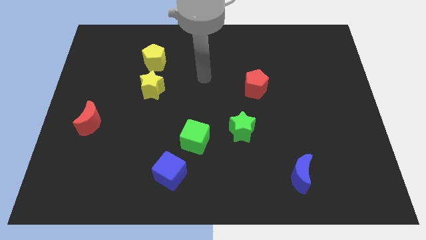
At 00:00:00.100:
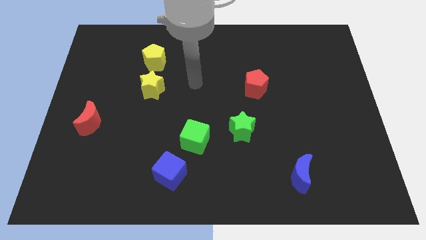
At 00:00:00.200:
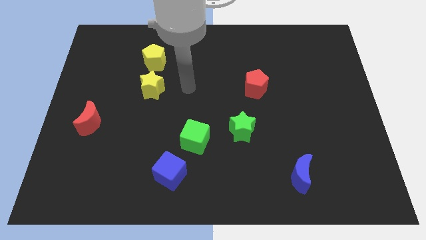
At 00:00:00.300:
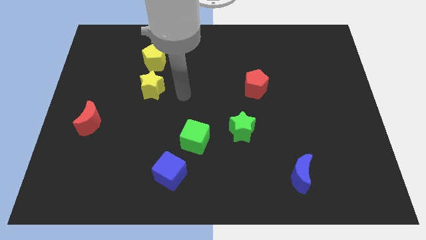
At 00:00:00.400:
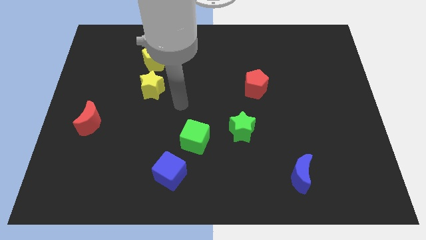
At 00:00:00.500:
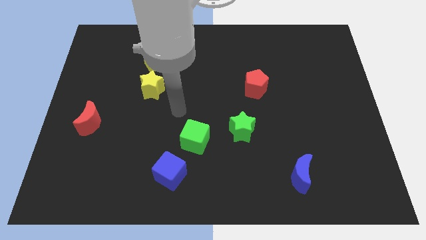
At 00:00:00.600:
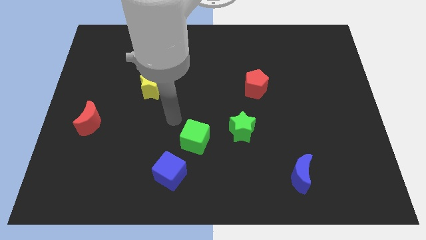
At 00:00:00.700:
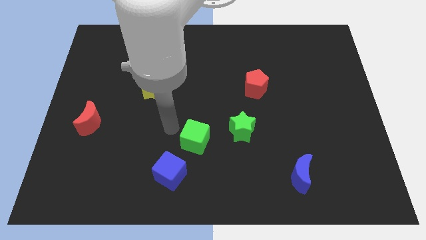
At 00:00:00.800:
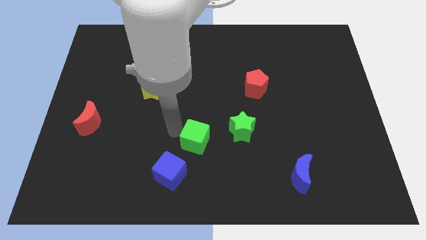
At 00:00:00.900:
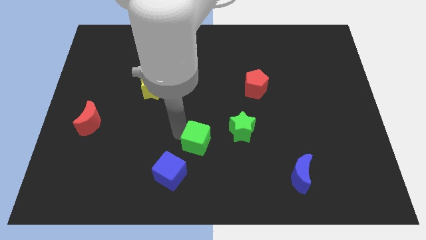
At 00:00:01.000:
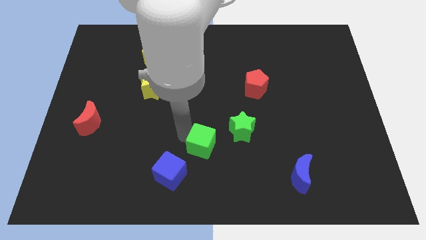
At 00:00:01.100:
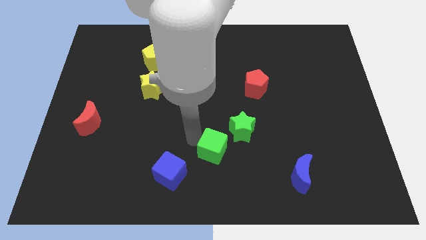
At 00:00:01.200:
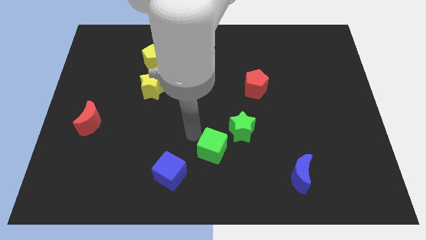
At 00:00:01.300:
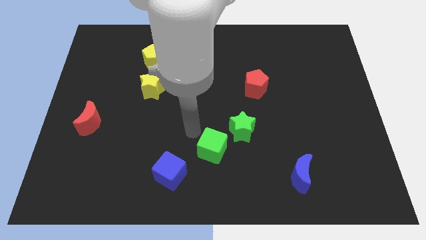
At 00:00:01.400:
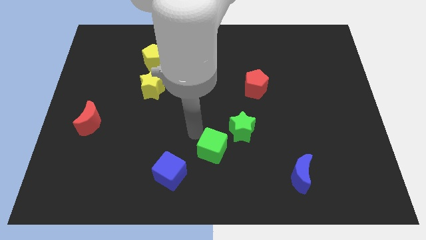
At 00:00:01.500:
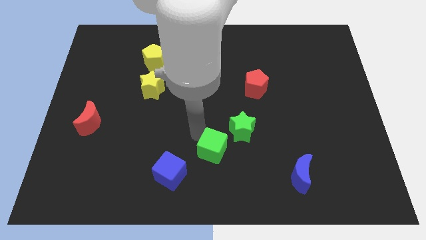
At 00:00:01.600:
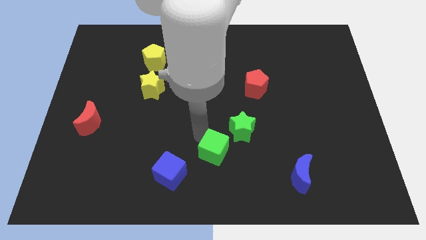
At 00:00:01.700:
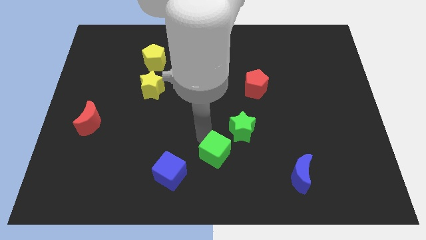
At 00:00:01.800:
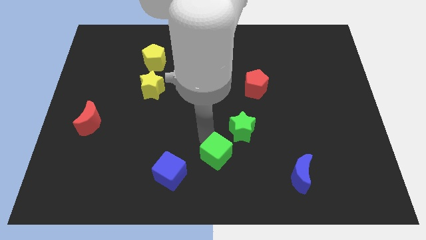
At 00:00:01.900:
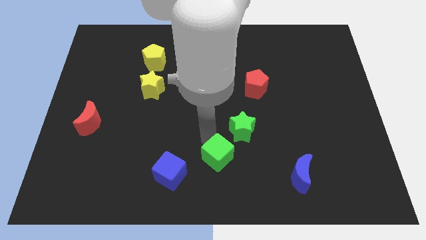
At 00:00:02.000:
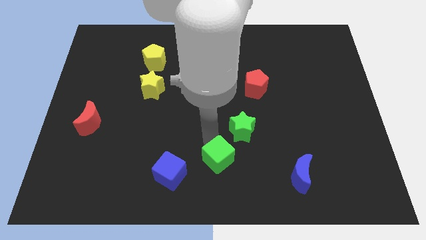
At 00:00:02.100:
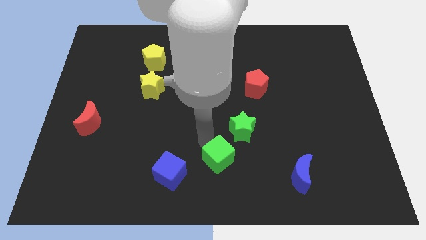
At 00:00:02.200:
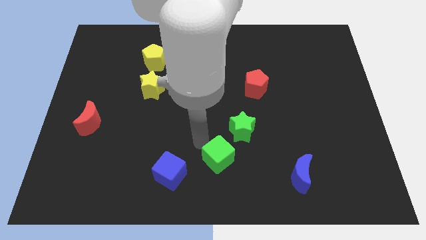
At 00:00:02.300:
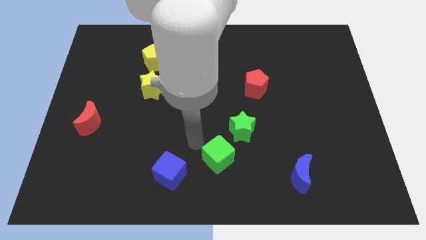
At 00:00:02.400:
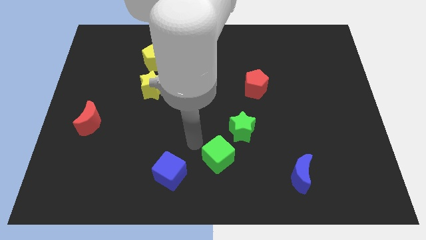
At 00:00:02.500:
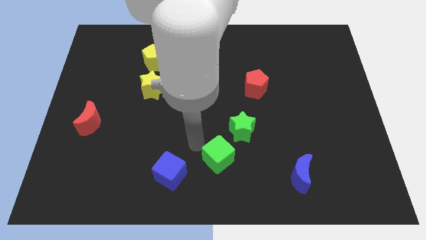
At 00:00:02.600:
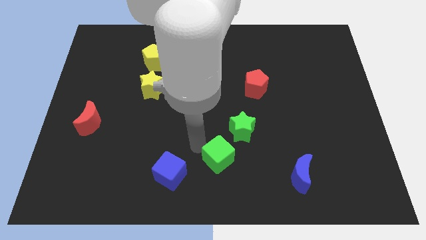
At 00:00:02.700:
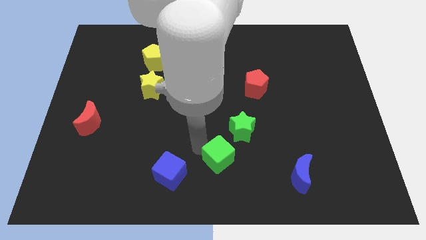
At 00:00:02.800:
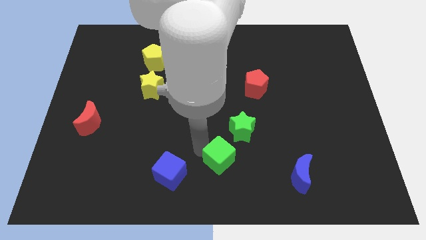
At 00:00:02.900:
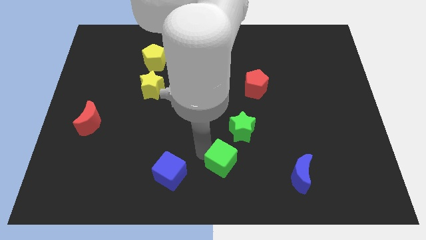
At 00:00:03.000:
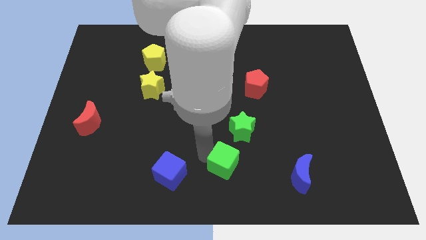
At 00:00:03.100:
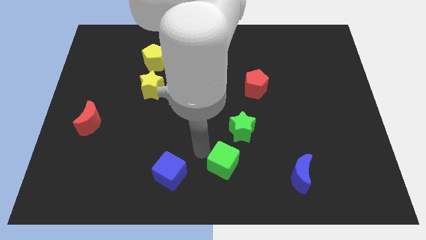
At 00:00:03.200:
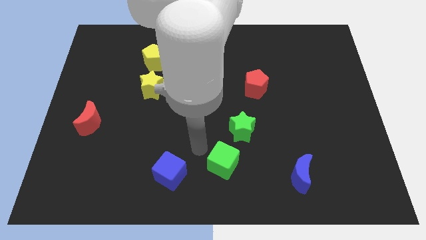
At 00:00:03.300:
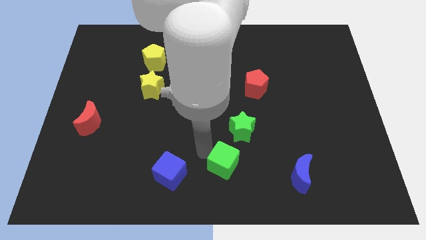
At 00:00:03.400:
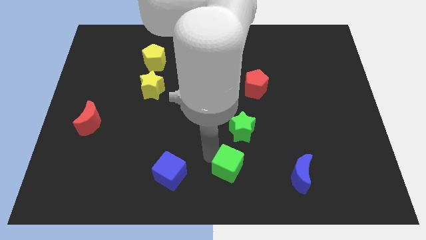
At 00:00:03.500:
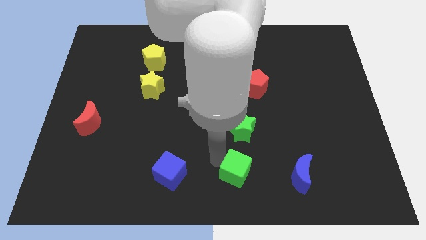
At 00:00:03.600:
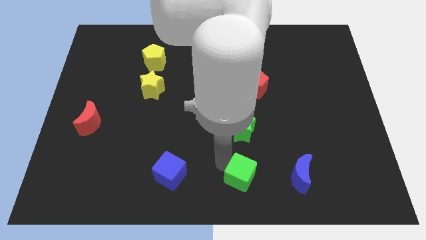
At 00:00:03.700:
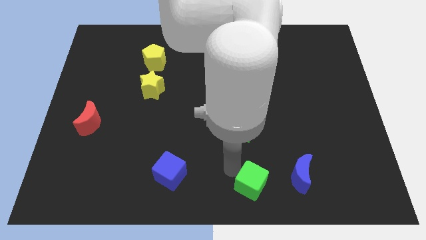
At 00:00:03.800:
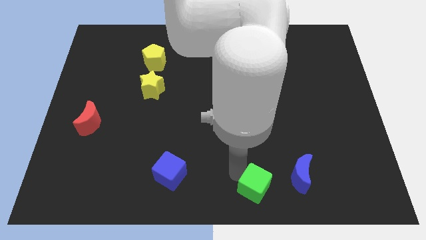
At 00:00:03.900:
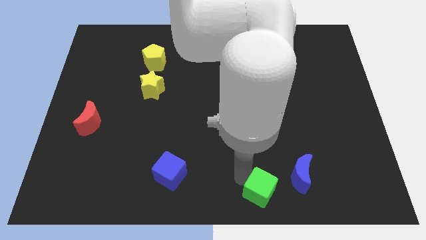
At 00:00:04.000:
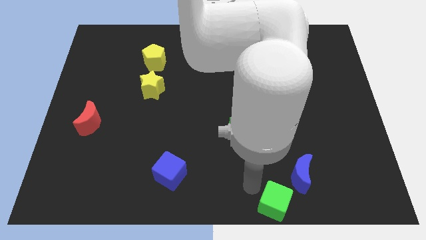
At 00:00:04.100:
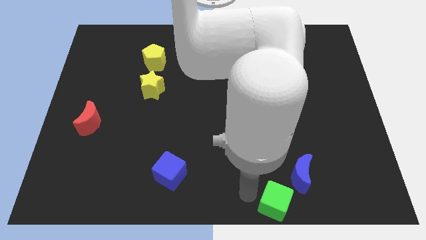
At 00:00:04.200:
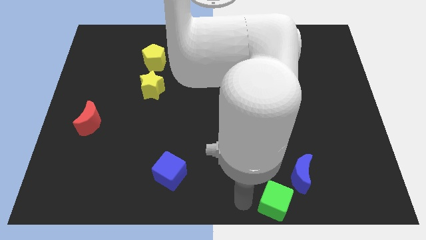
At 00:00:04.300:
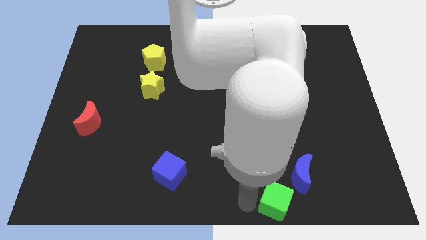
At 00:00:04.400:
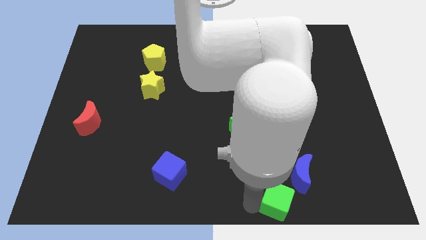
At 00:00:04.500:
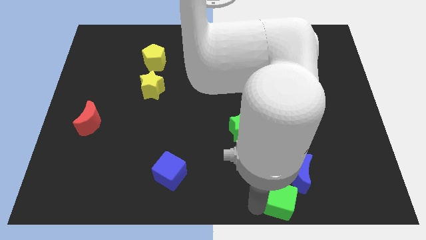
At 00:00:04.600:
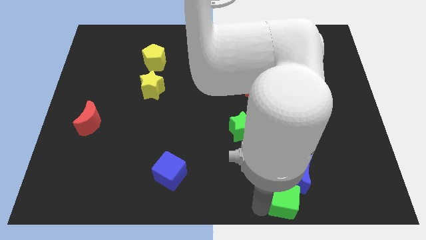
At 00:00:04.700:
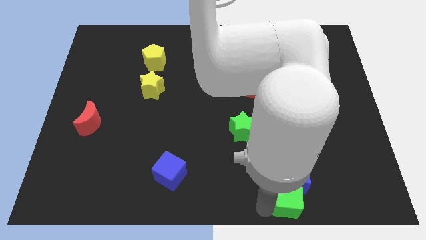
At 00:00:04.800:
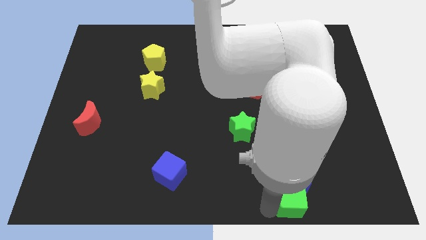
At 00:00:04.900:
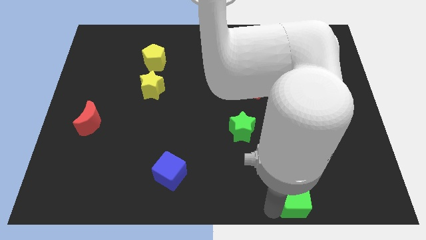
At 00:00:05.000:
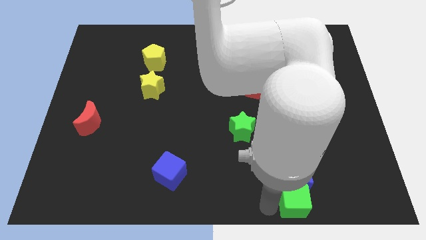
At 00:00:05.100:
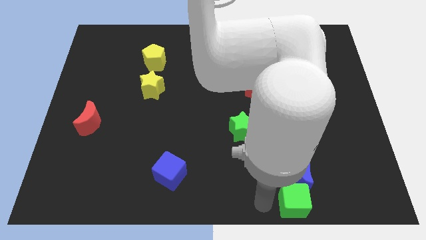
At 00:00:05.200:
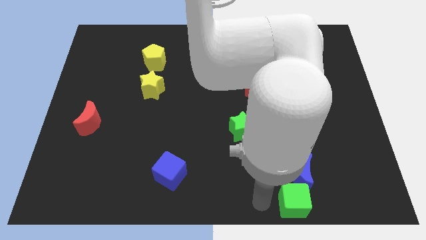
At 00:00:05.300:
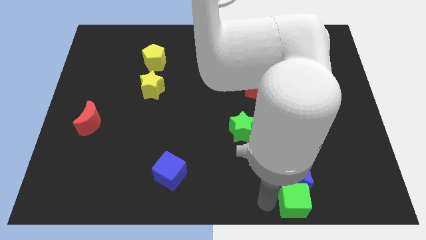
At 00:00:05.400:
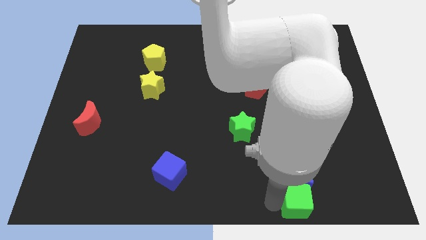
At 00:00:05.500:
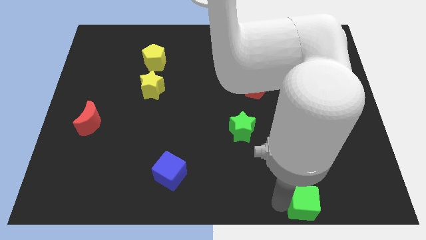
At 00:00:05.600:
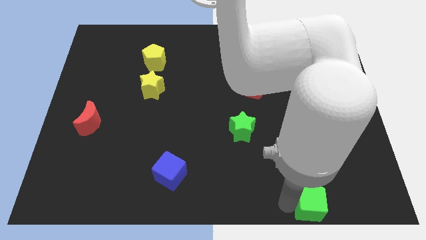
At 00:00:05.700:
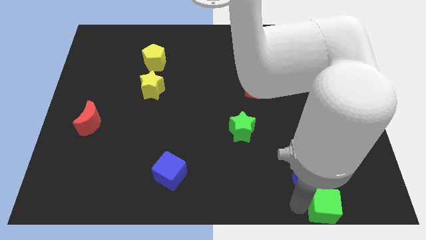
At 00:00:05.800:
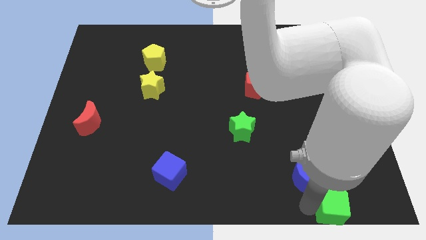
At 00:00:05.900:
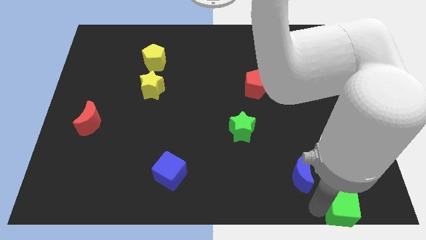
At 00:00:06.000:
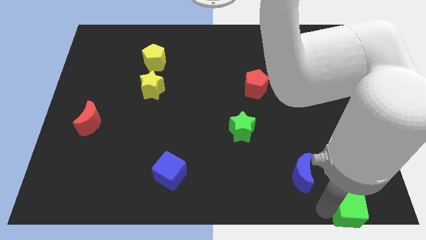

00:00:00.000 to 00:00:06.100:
put the green cube to the bottom right corner
